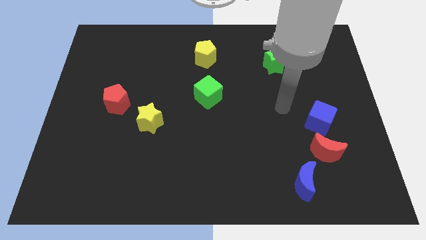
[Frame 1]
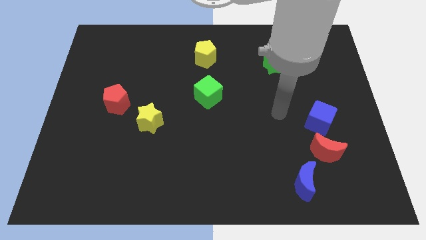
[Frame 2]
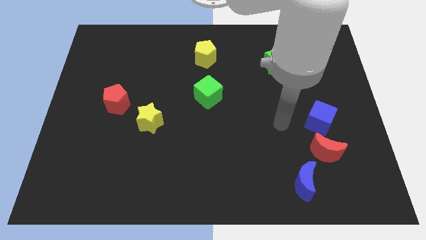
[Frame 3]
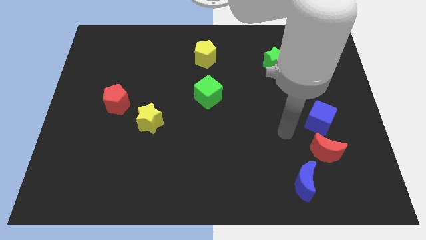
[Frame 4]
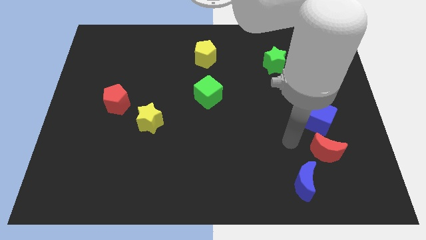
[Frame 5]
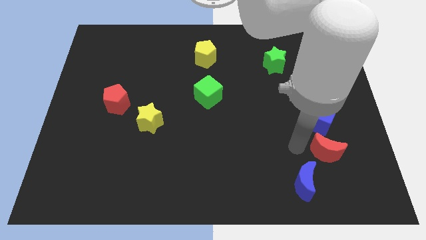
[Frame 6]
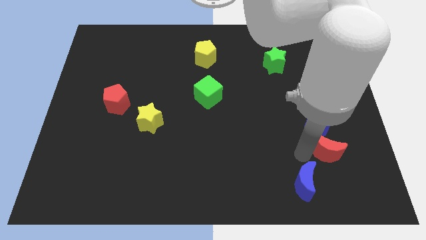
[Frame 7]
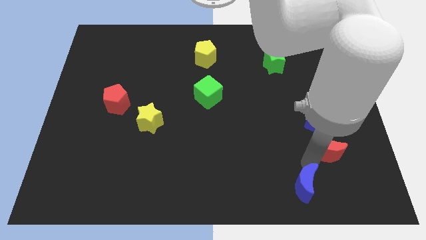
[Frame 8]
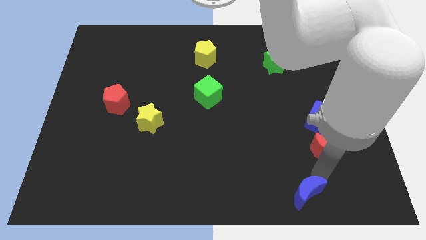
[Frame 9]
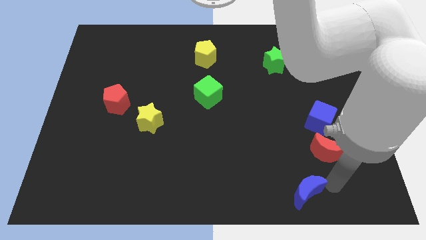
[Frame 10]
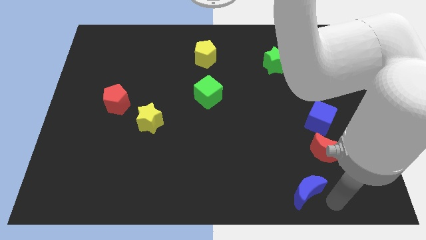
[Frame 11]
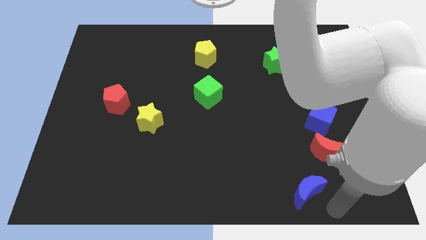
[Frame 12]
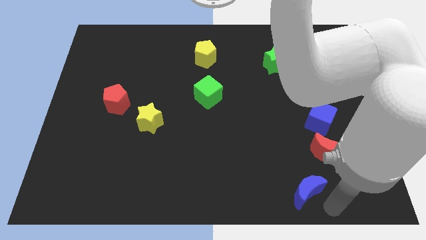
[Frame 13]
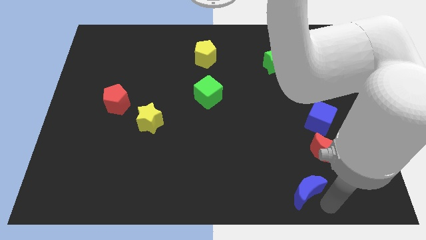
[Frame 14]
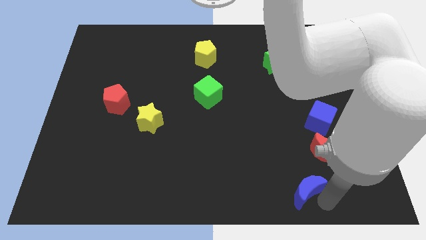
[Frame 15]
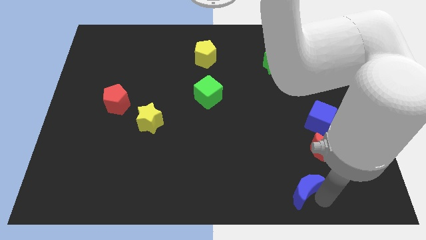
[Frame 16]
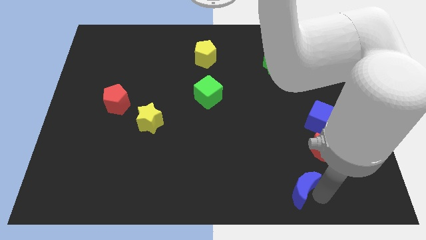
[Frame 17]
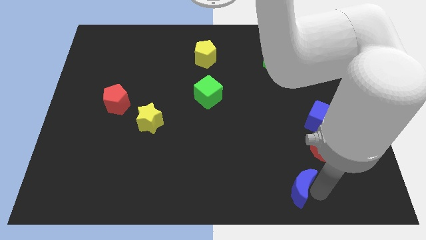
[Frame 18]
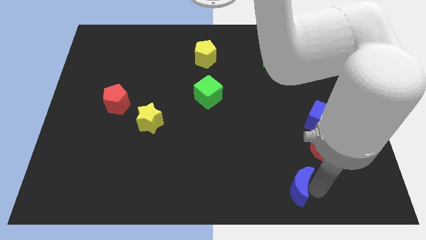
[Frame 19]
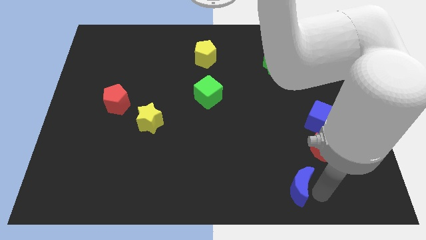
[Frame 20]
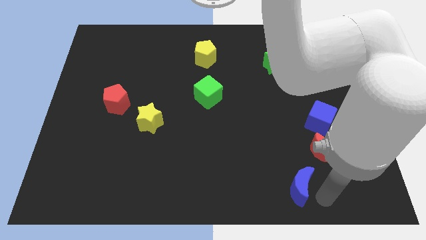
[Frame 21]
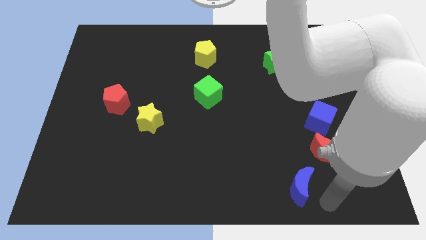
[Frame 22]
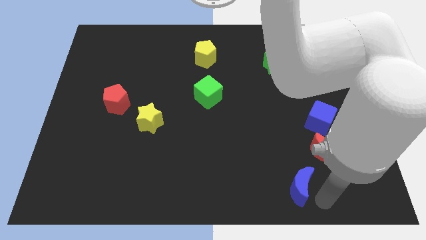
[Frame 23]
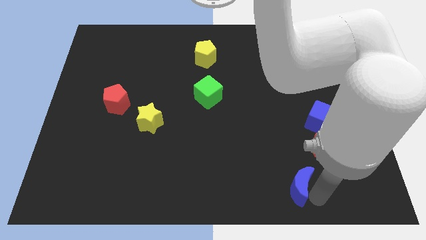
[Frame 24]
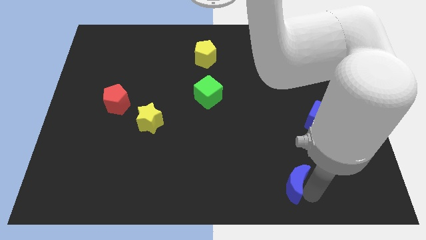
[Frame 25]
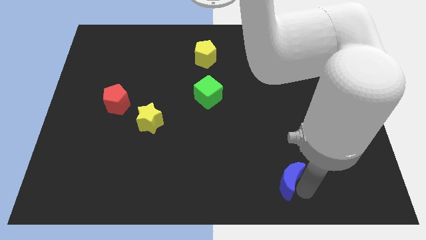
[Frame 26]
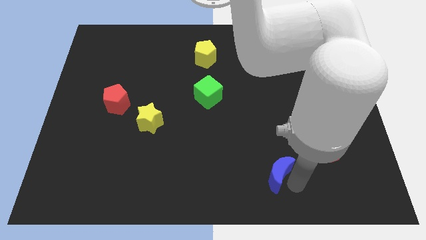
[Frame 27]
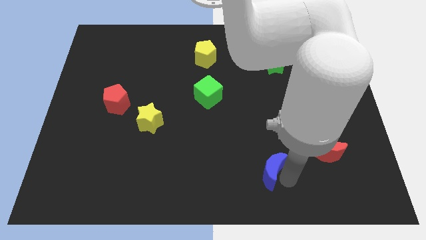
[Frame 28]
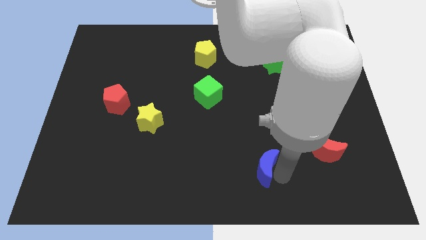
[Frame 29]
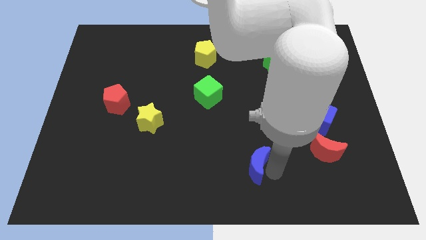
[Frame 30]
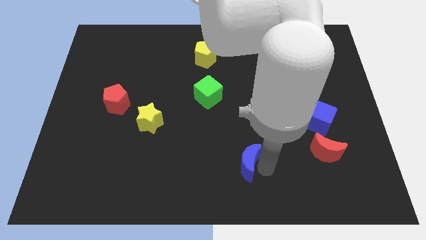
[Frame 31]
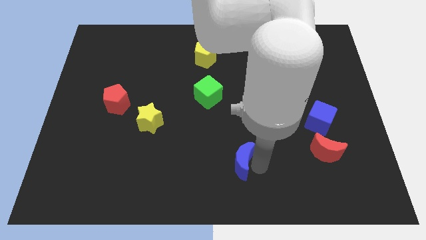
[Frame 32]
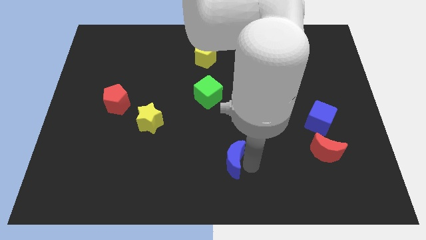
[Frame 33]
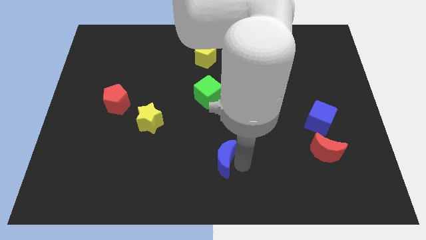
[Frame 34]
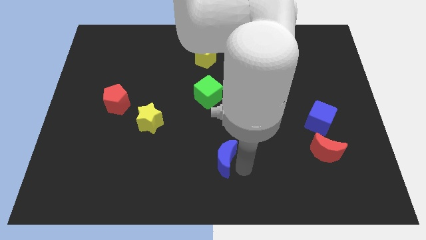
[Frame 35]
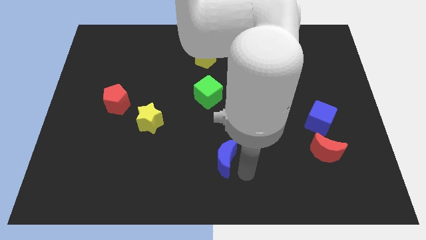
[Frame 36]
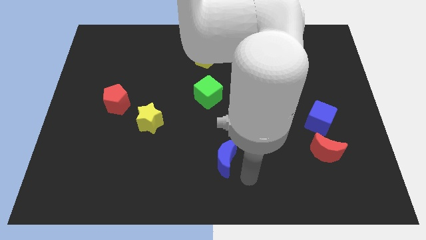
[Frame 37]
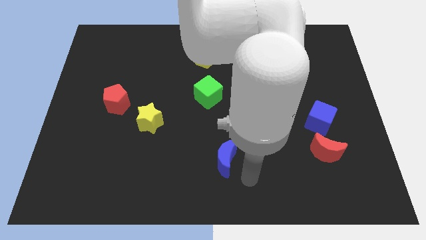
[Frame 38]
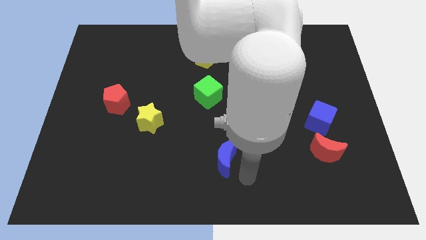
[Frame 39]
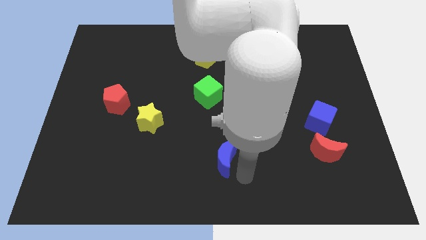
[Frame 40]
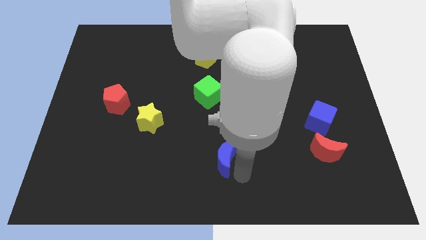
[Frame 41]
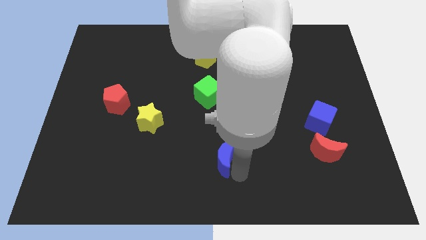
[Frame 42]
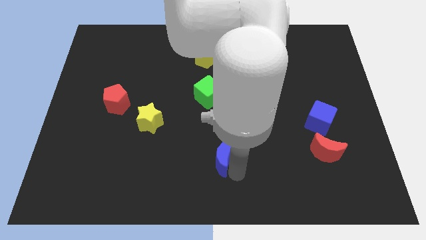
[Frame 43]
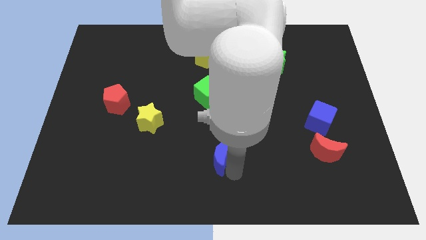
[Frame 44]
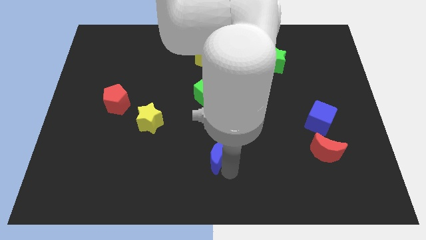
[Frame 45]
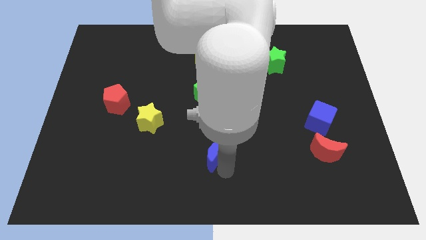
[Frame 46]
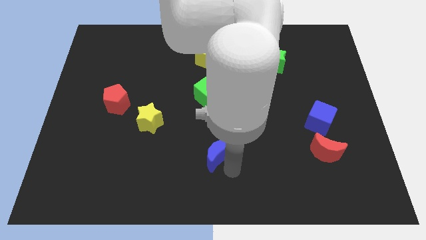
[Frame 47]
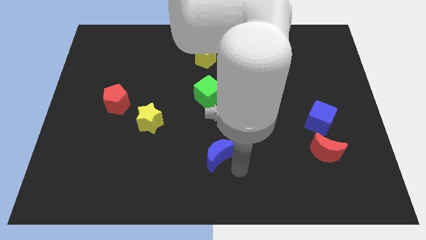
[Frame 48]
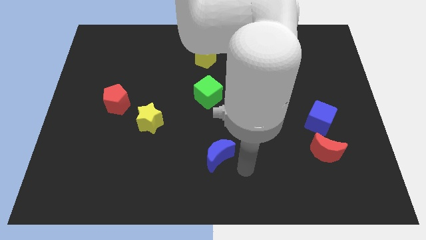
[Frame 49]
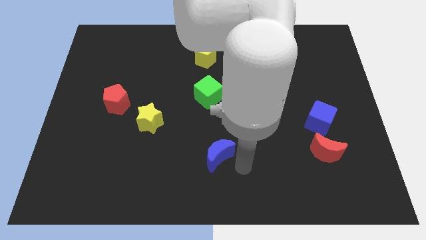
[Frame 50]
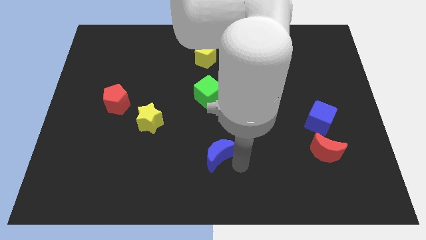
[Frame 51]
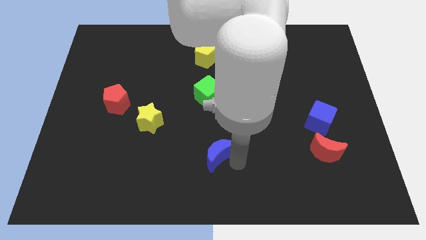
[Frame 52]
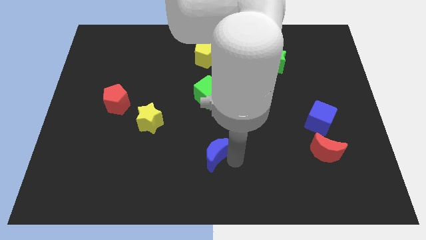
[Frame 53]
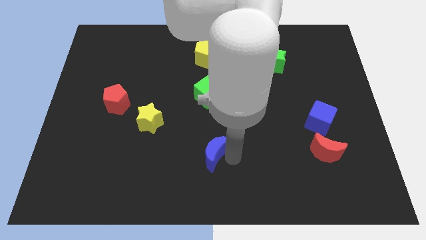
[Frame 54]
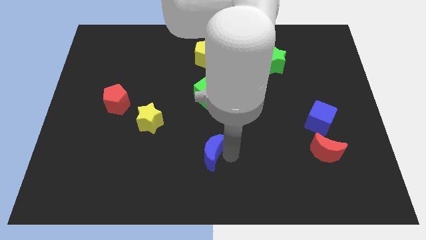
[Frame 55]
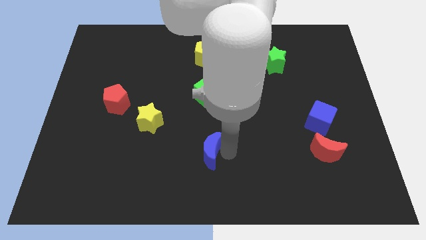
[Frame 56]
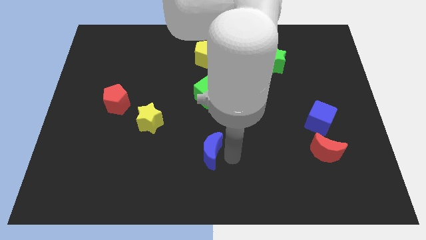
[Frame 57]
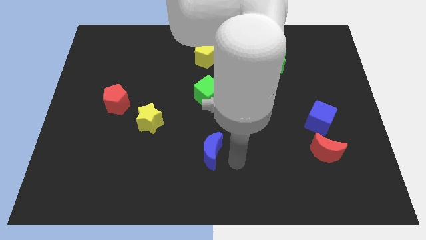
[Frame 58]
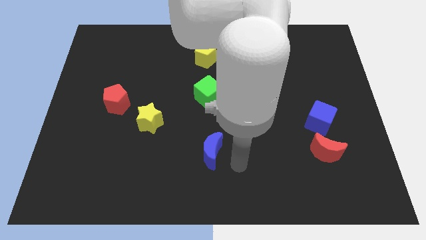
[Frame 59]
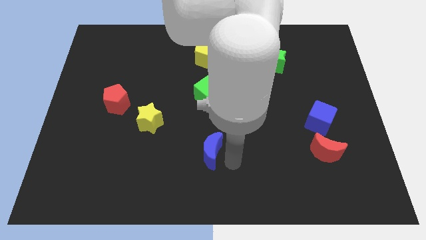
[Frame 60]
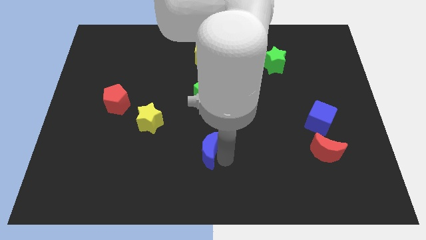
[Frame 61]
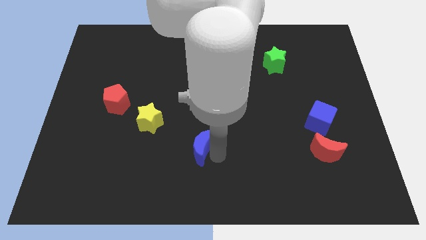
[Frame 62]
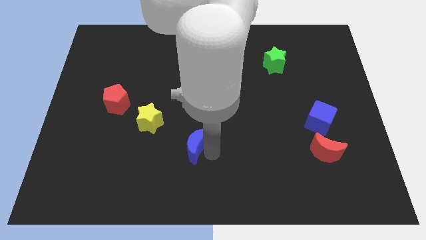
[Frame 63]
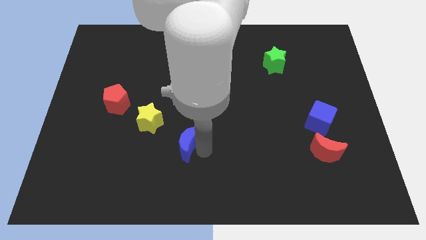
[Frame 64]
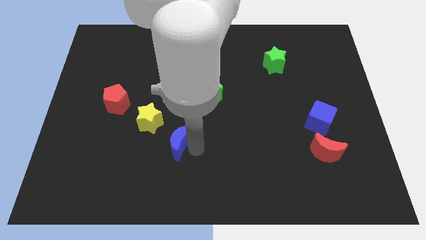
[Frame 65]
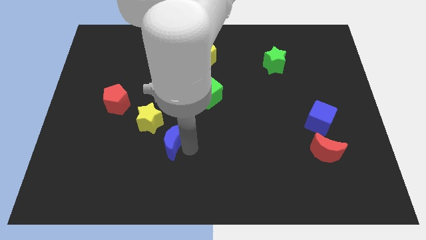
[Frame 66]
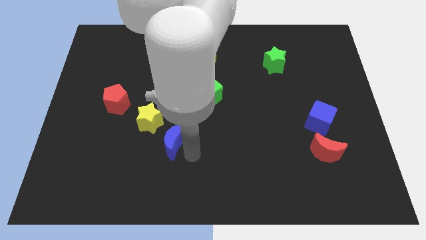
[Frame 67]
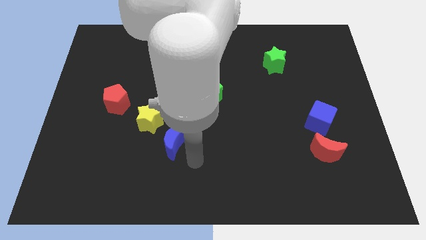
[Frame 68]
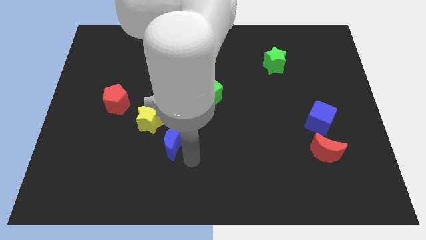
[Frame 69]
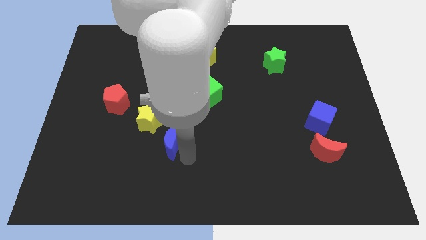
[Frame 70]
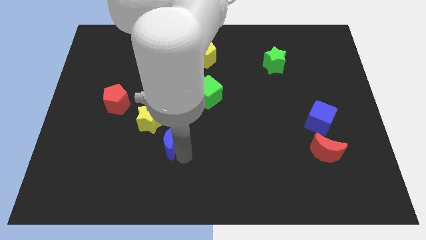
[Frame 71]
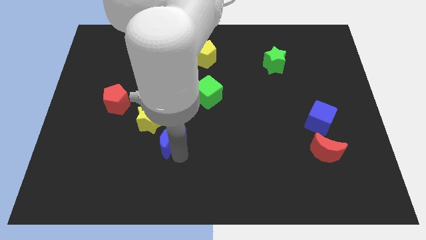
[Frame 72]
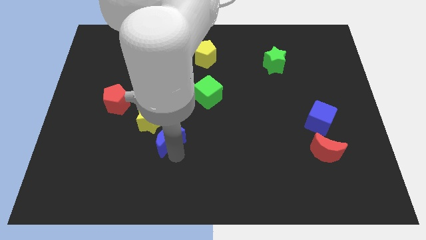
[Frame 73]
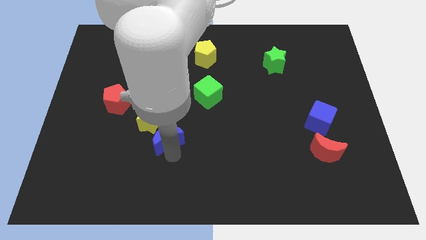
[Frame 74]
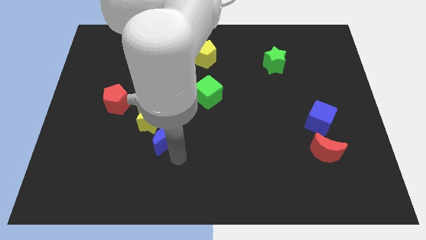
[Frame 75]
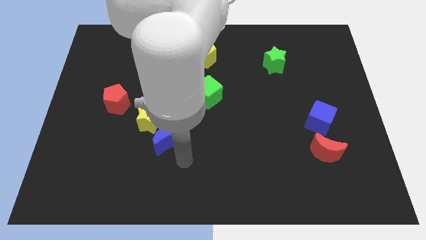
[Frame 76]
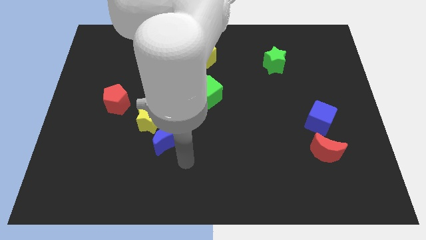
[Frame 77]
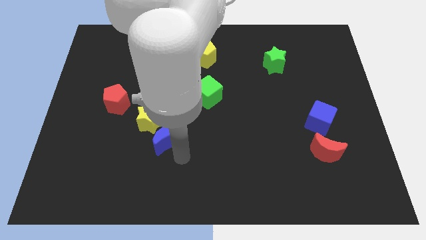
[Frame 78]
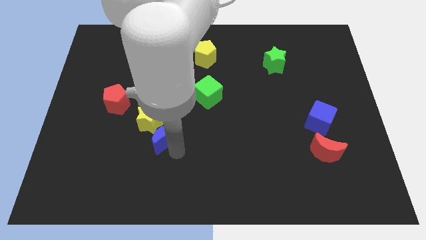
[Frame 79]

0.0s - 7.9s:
move the blue moon next to the yellow star
